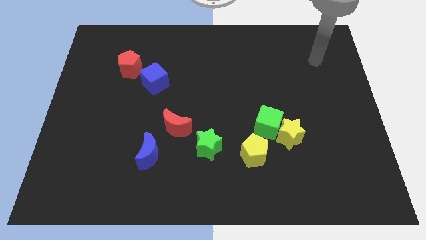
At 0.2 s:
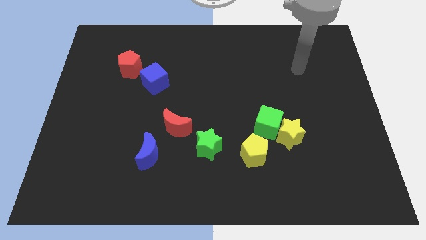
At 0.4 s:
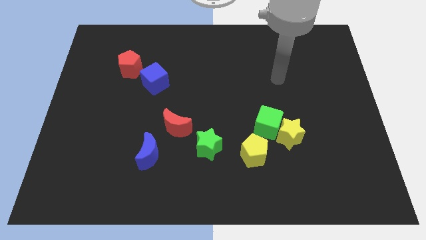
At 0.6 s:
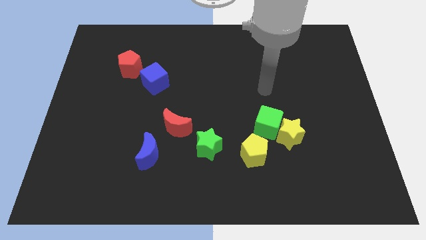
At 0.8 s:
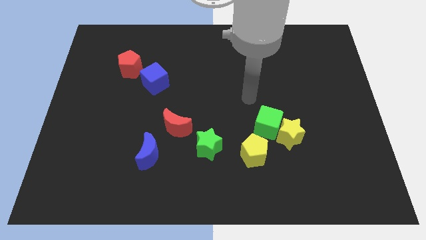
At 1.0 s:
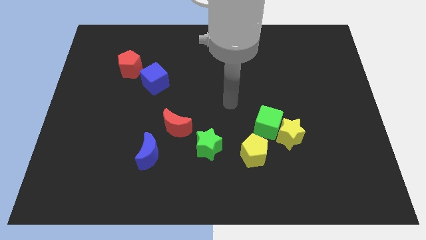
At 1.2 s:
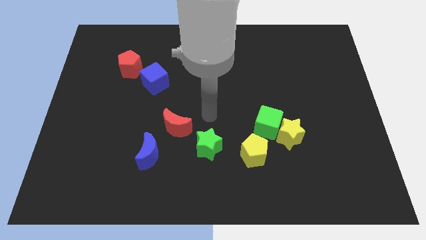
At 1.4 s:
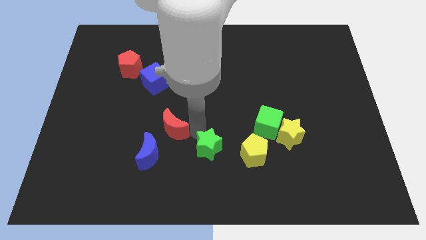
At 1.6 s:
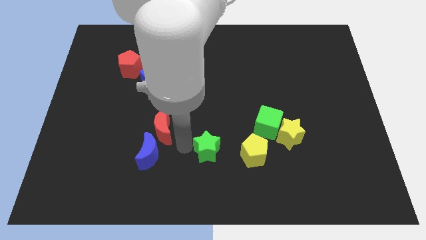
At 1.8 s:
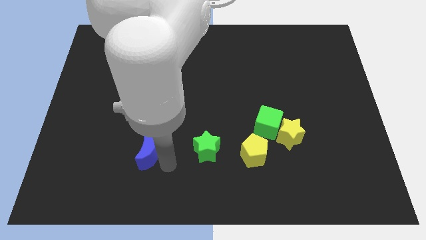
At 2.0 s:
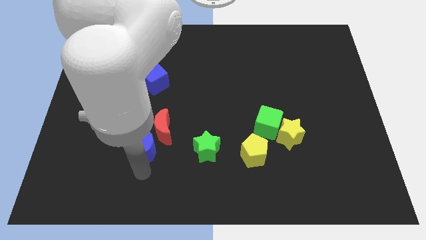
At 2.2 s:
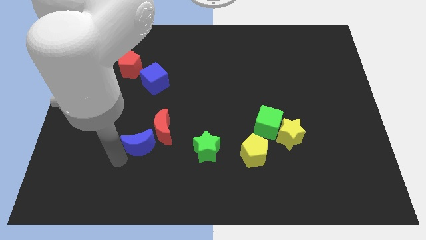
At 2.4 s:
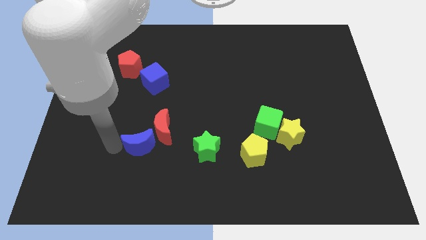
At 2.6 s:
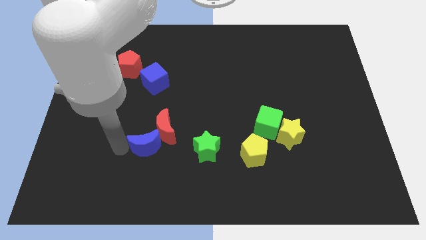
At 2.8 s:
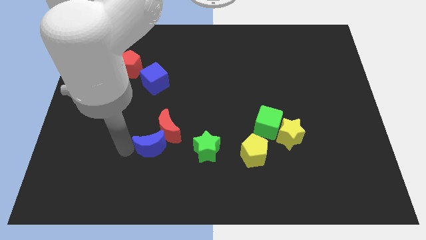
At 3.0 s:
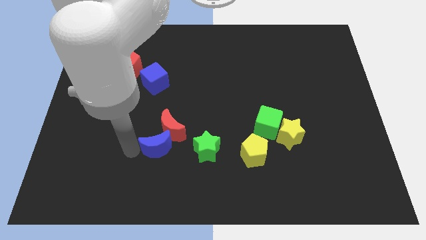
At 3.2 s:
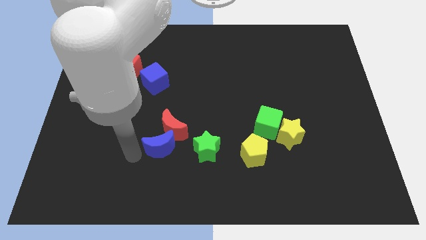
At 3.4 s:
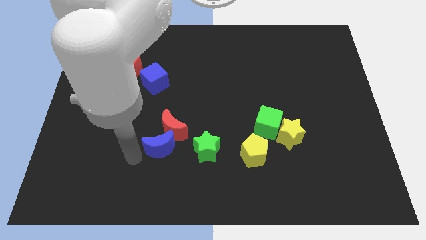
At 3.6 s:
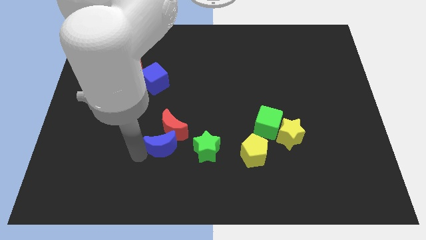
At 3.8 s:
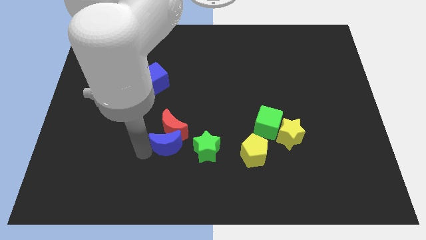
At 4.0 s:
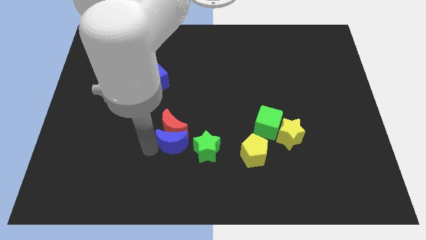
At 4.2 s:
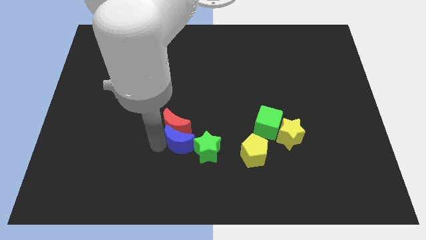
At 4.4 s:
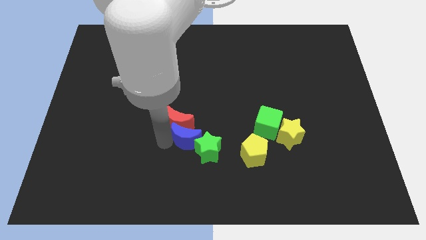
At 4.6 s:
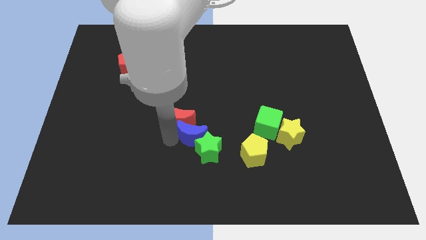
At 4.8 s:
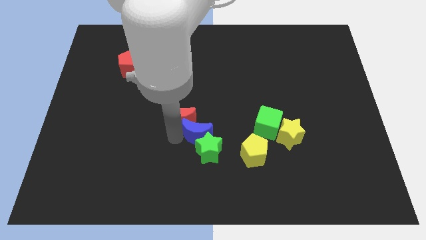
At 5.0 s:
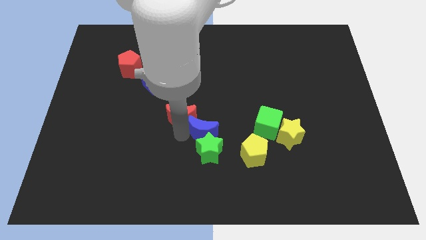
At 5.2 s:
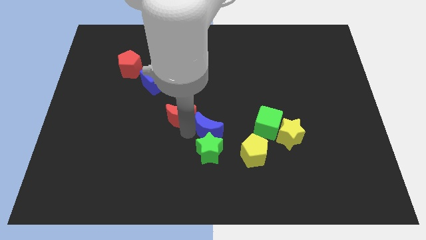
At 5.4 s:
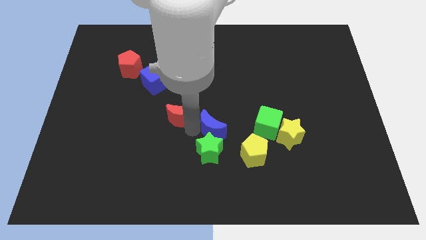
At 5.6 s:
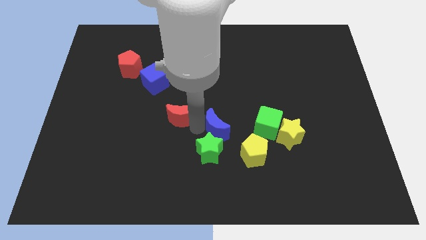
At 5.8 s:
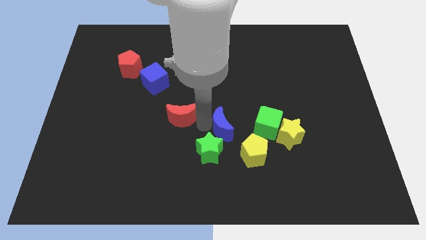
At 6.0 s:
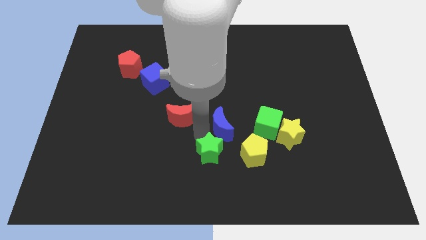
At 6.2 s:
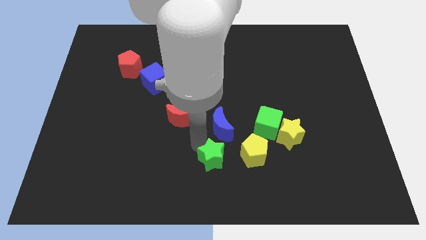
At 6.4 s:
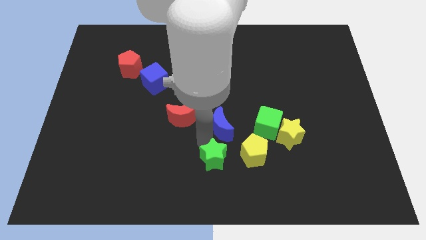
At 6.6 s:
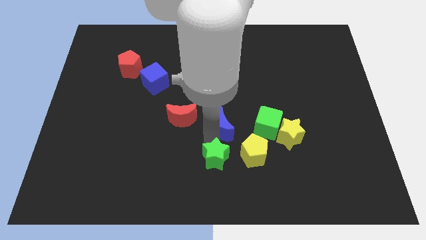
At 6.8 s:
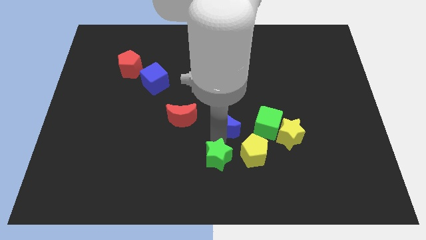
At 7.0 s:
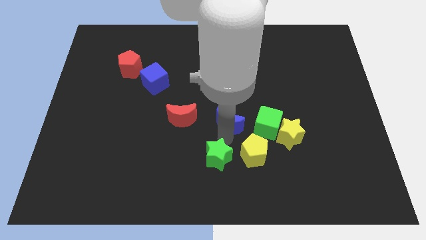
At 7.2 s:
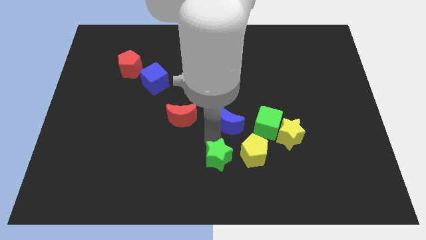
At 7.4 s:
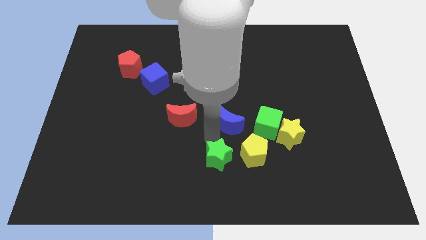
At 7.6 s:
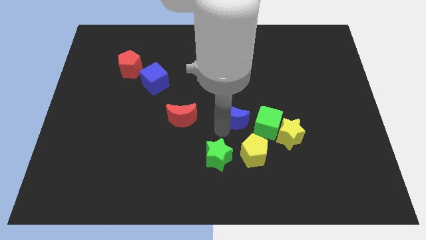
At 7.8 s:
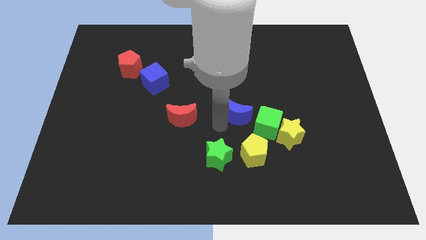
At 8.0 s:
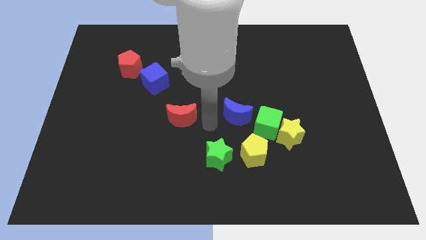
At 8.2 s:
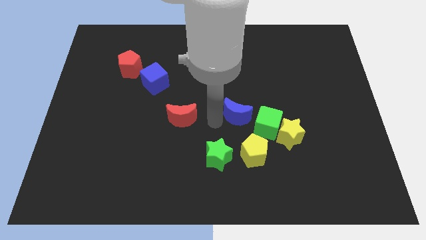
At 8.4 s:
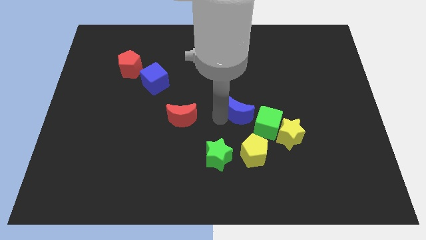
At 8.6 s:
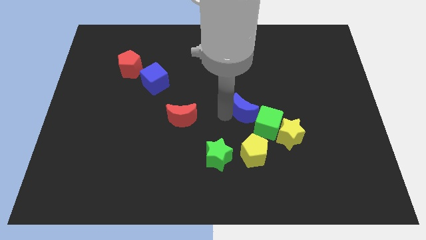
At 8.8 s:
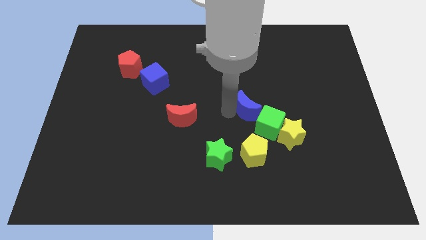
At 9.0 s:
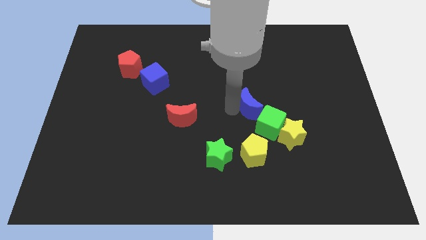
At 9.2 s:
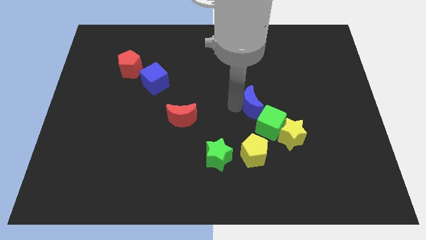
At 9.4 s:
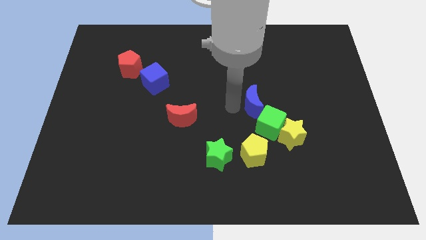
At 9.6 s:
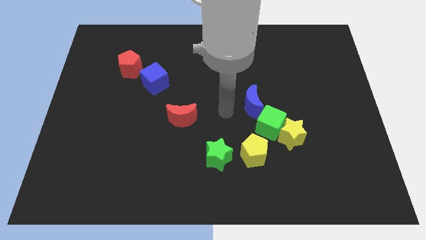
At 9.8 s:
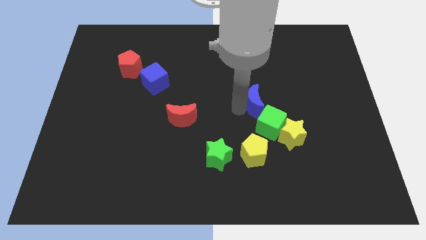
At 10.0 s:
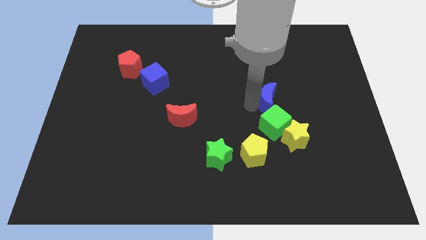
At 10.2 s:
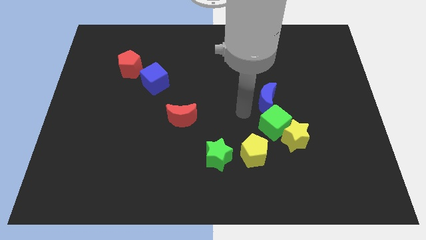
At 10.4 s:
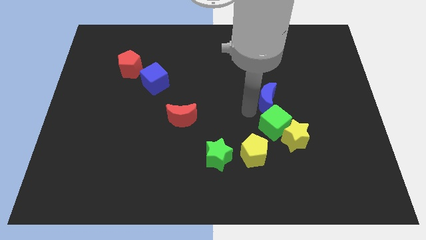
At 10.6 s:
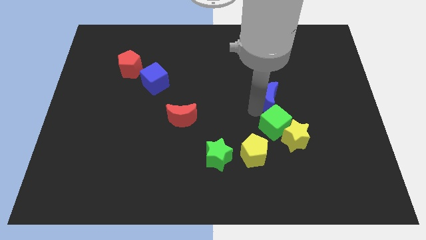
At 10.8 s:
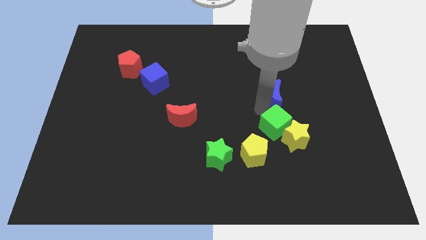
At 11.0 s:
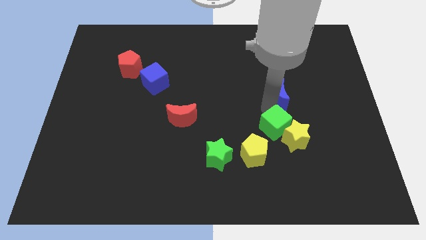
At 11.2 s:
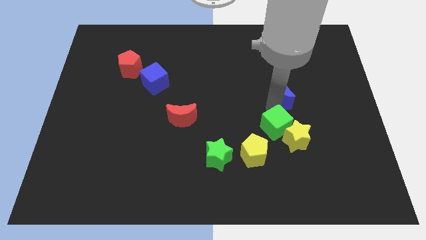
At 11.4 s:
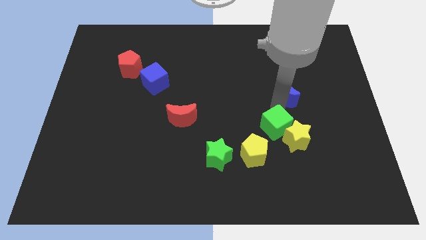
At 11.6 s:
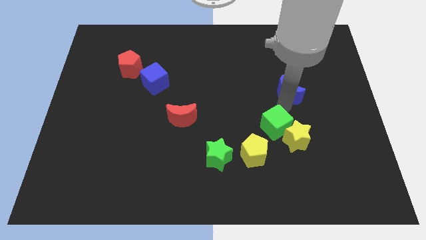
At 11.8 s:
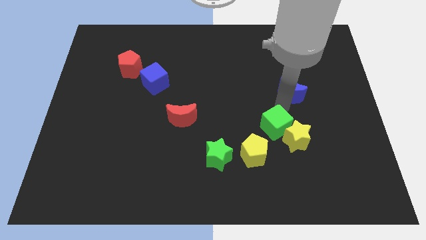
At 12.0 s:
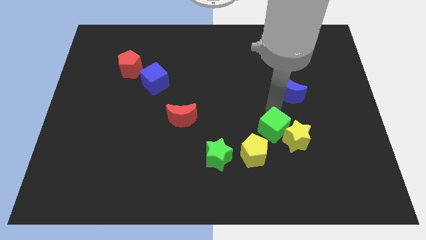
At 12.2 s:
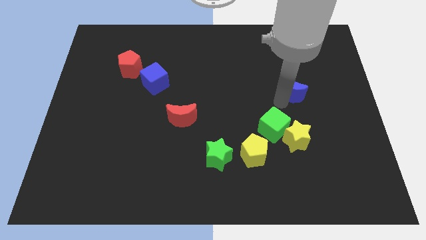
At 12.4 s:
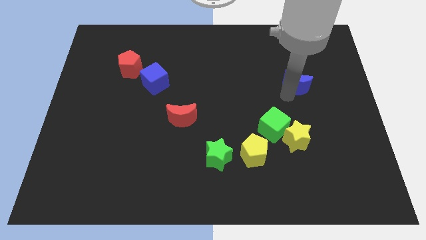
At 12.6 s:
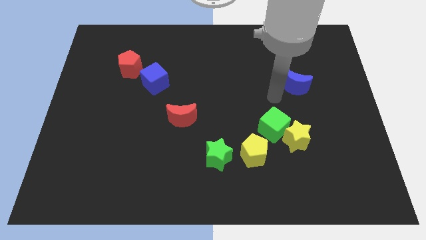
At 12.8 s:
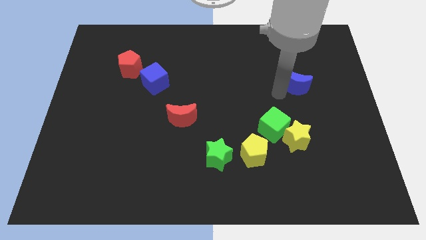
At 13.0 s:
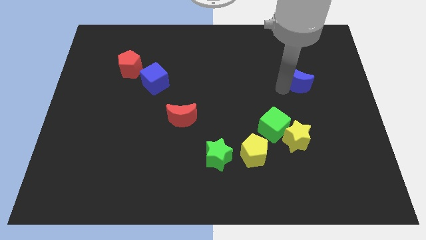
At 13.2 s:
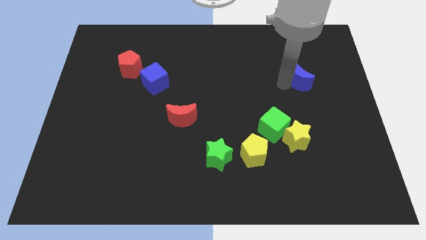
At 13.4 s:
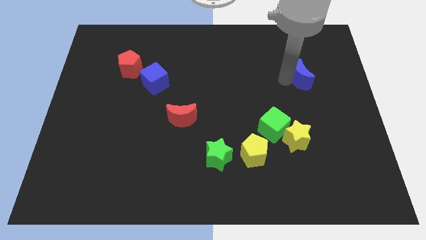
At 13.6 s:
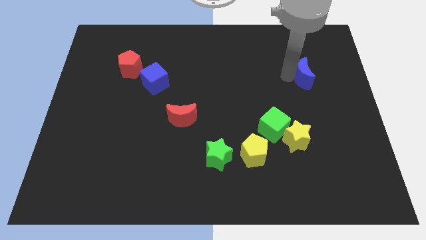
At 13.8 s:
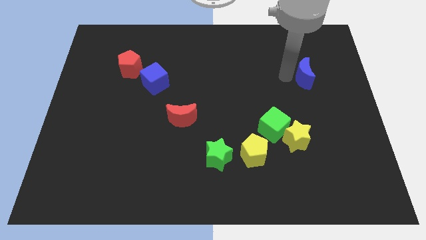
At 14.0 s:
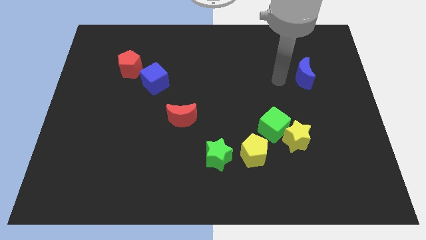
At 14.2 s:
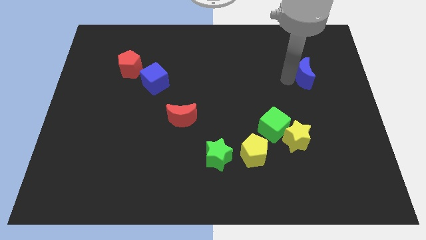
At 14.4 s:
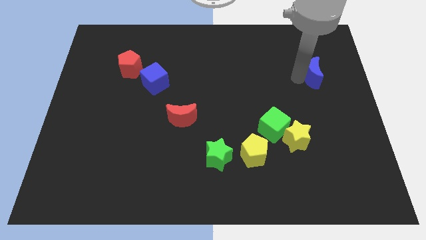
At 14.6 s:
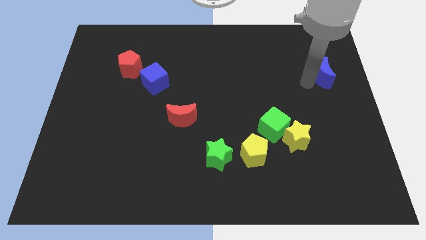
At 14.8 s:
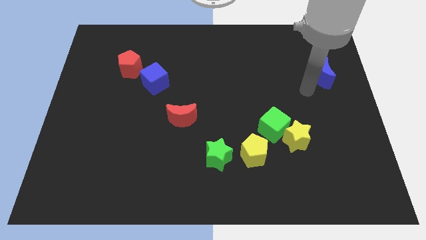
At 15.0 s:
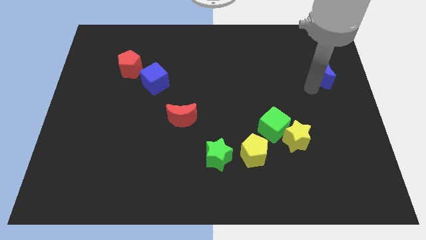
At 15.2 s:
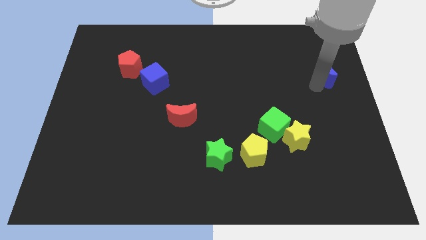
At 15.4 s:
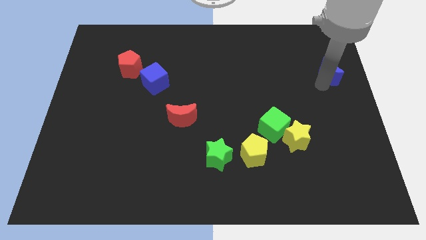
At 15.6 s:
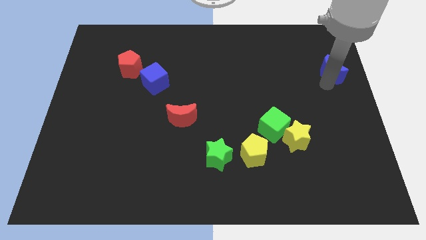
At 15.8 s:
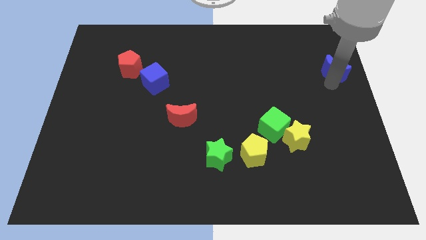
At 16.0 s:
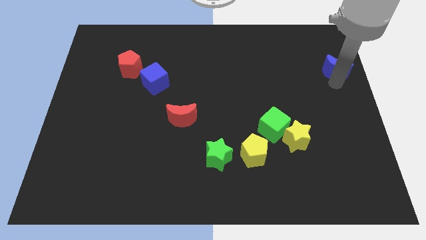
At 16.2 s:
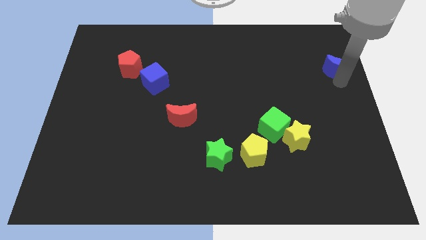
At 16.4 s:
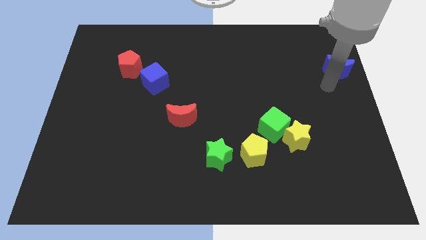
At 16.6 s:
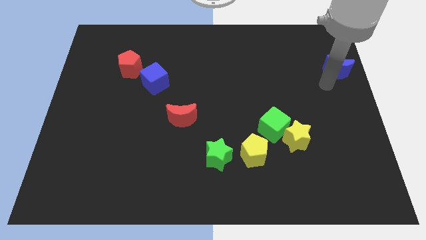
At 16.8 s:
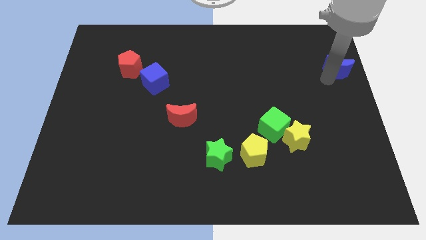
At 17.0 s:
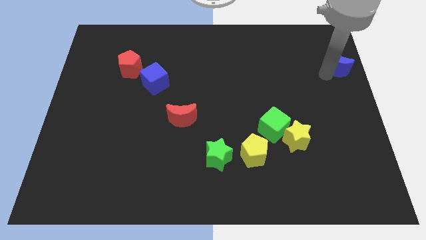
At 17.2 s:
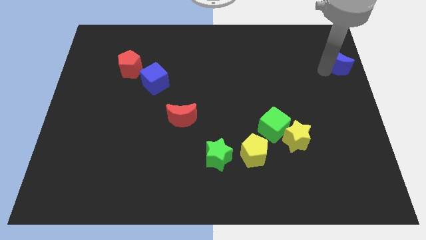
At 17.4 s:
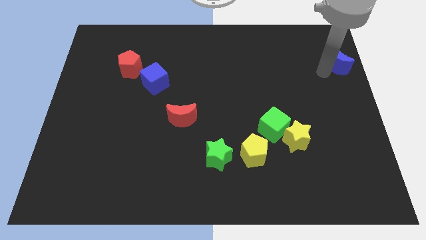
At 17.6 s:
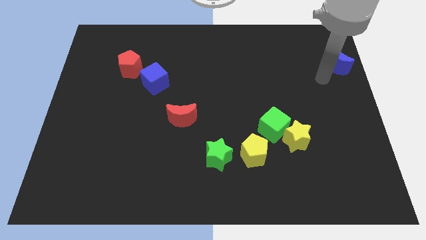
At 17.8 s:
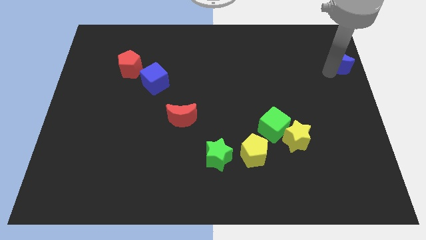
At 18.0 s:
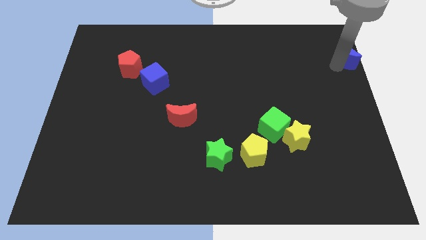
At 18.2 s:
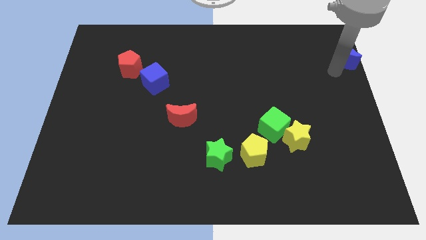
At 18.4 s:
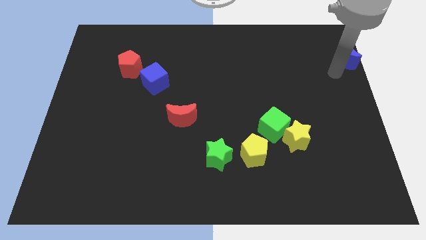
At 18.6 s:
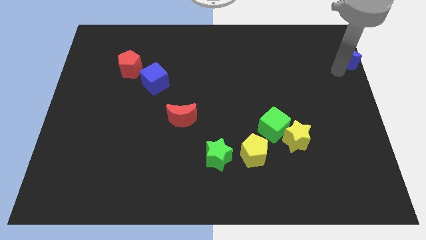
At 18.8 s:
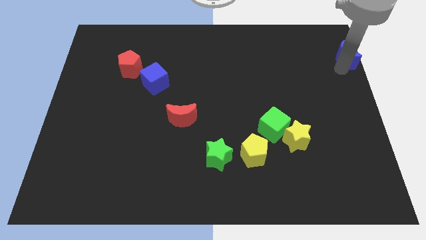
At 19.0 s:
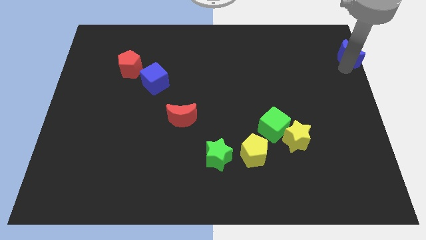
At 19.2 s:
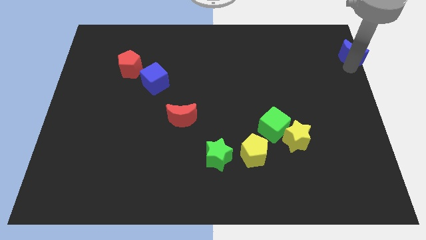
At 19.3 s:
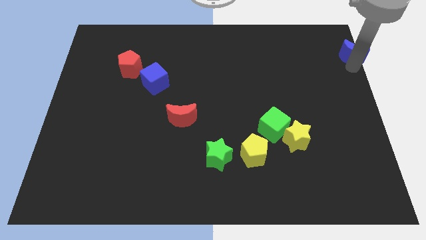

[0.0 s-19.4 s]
put the blue moon to the top right of the board
